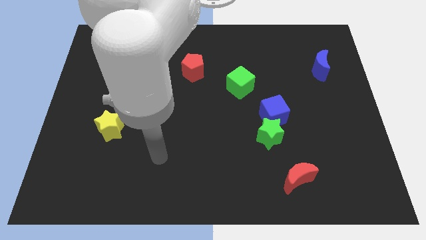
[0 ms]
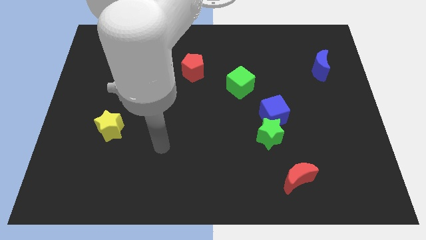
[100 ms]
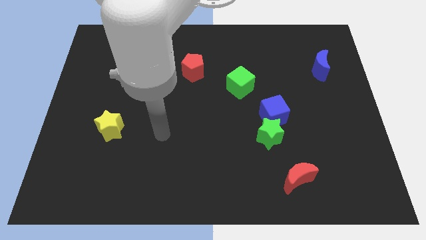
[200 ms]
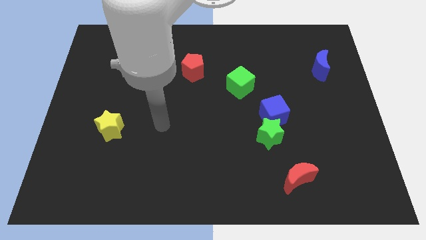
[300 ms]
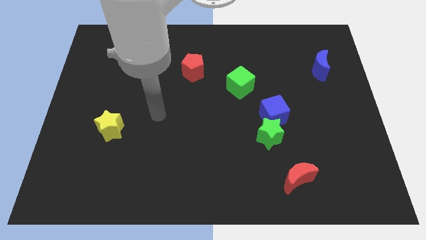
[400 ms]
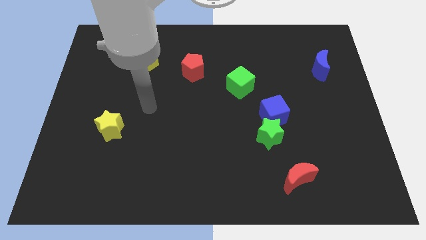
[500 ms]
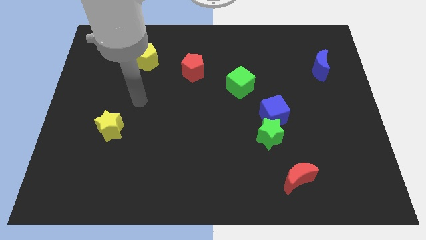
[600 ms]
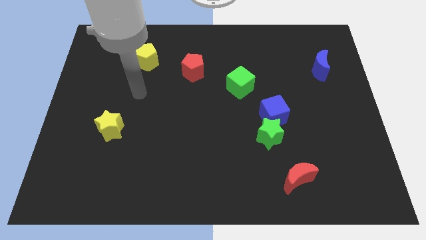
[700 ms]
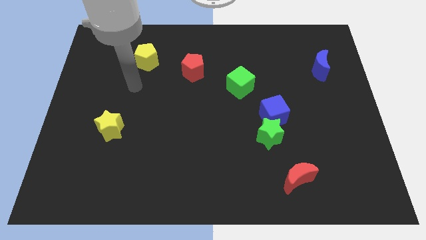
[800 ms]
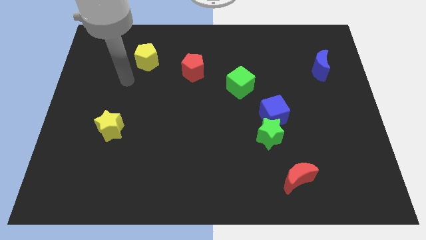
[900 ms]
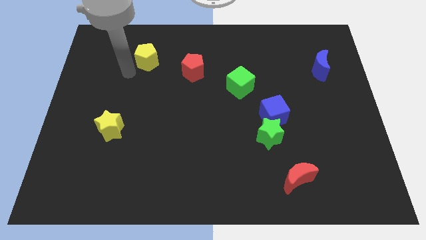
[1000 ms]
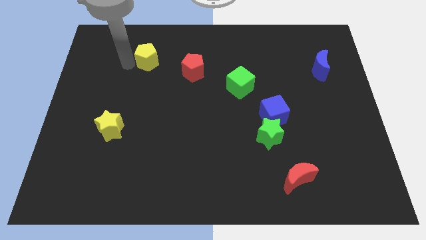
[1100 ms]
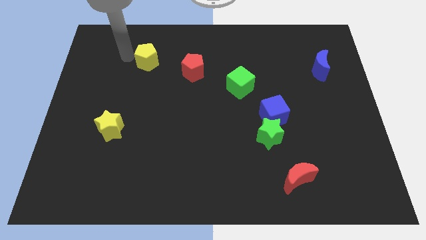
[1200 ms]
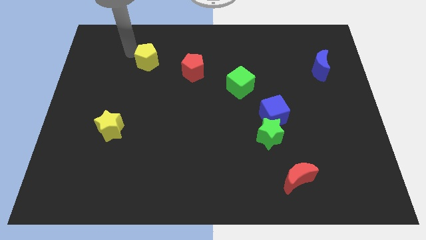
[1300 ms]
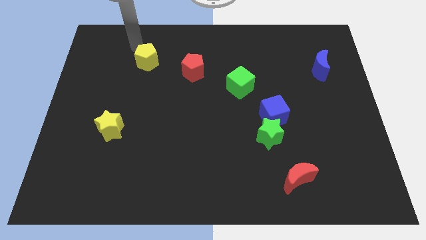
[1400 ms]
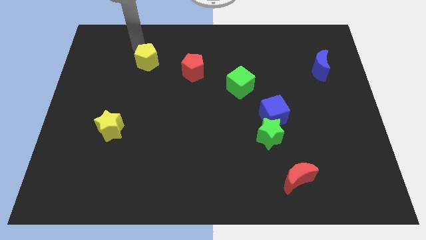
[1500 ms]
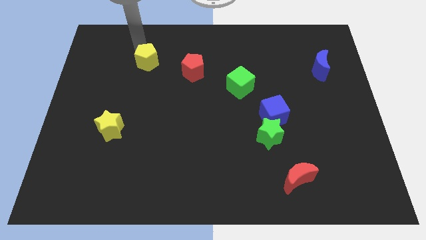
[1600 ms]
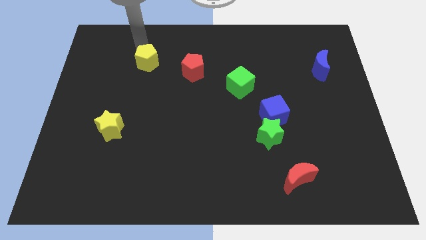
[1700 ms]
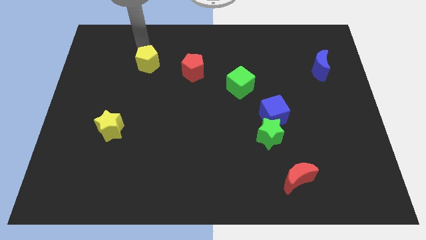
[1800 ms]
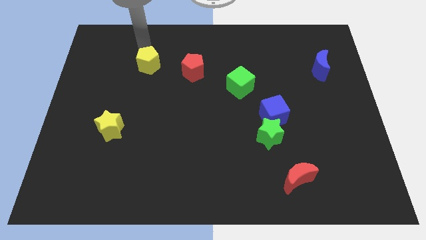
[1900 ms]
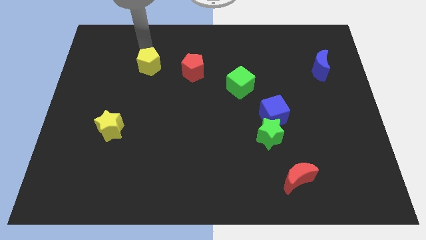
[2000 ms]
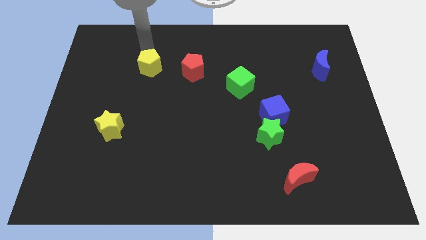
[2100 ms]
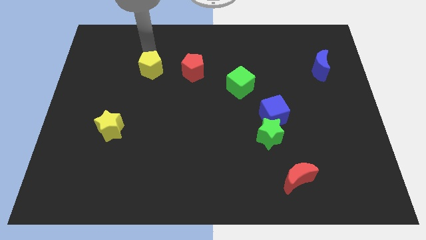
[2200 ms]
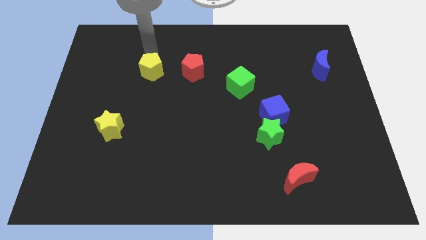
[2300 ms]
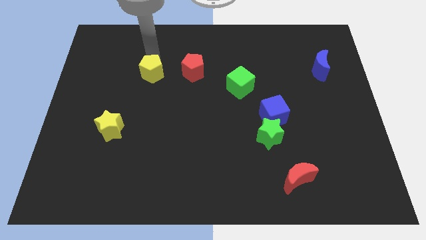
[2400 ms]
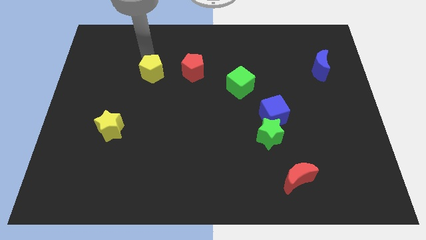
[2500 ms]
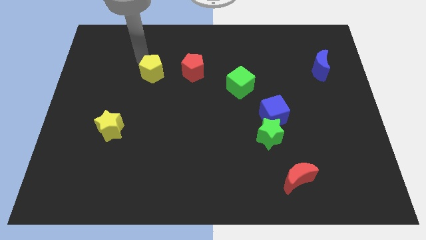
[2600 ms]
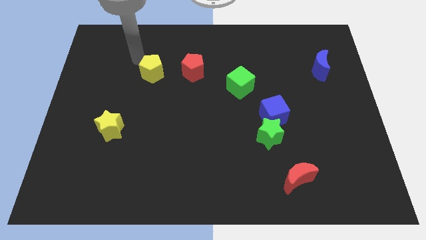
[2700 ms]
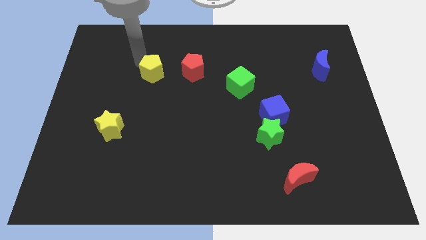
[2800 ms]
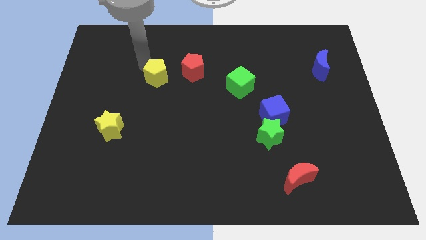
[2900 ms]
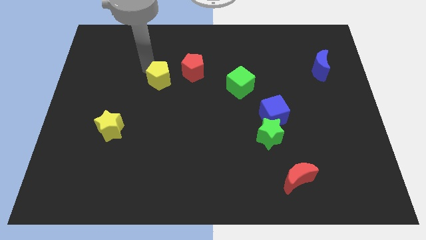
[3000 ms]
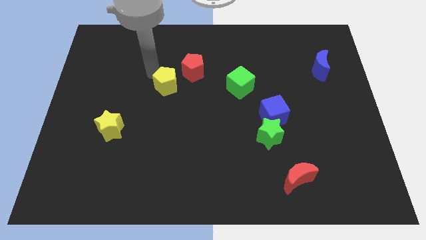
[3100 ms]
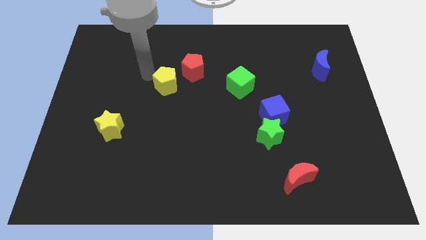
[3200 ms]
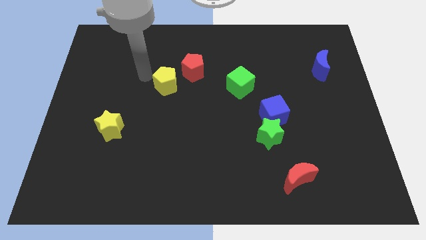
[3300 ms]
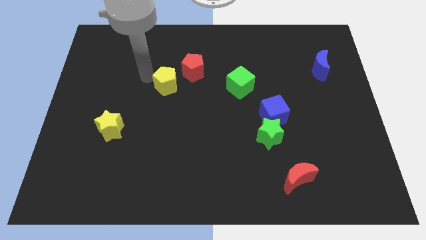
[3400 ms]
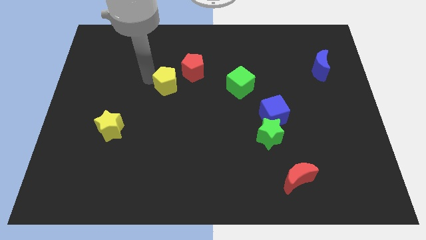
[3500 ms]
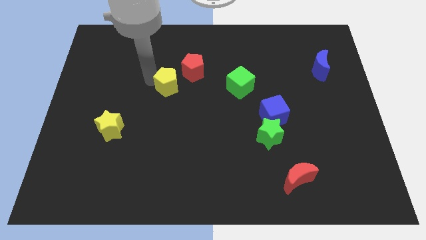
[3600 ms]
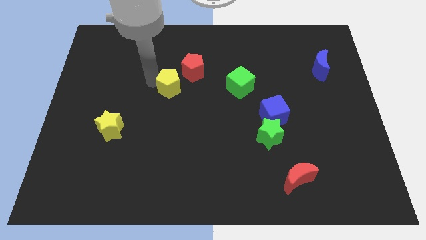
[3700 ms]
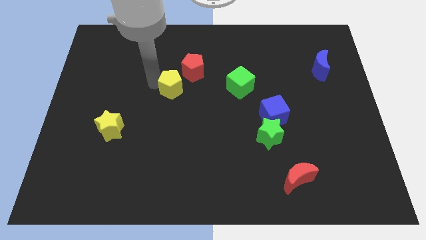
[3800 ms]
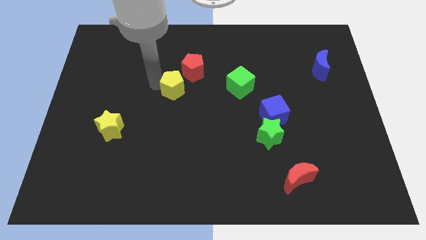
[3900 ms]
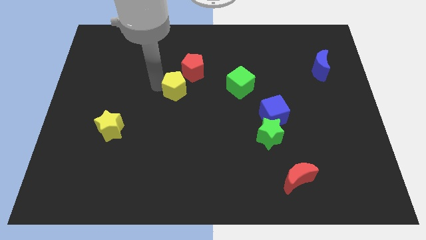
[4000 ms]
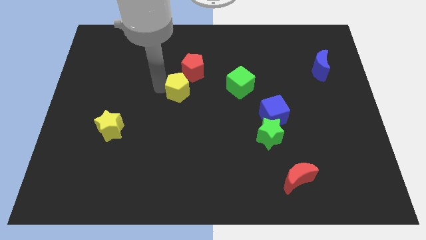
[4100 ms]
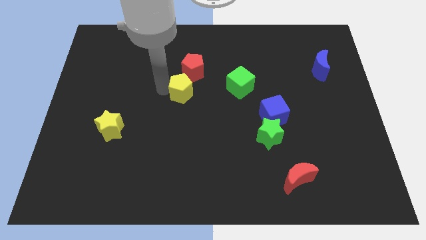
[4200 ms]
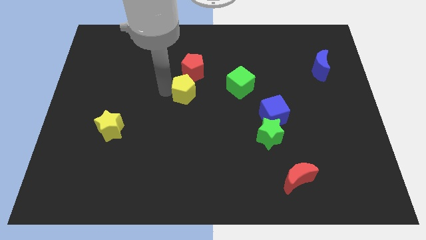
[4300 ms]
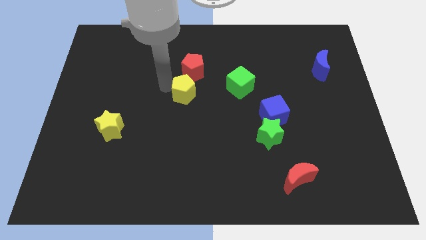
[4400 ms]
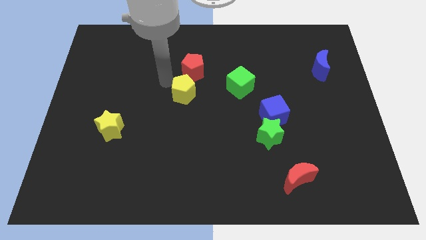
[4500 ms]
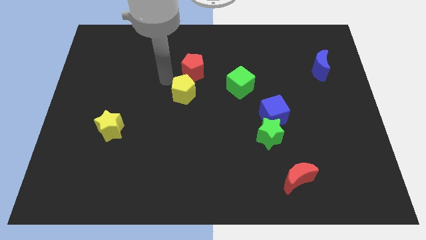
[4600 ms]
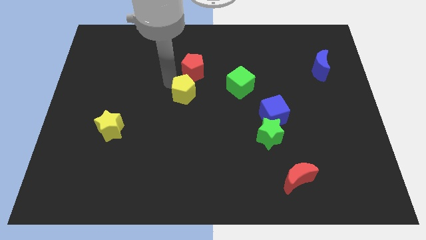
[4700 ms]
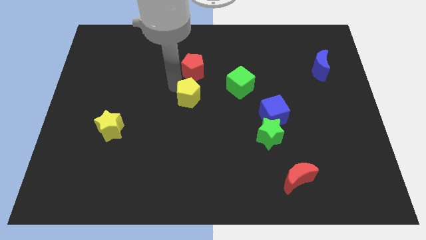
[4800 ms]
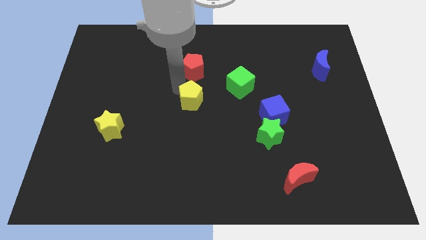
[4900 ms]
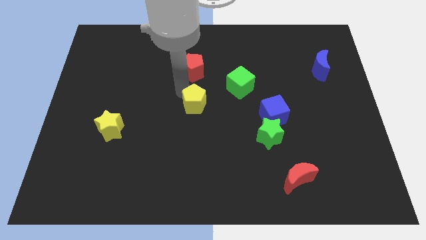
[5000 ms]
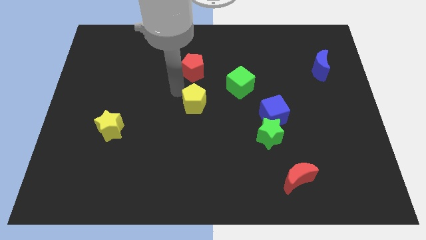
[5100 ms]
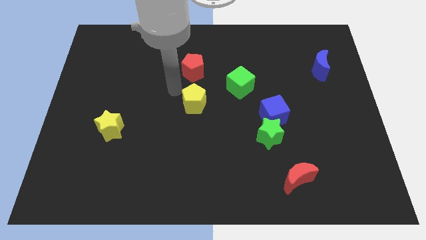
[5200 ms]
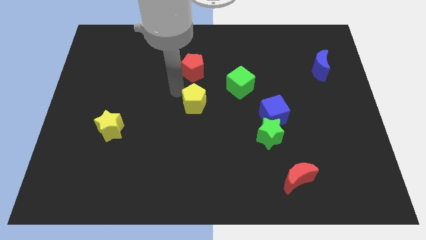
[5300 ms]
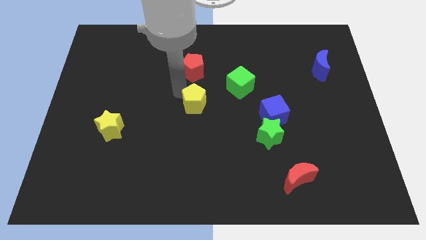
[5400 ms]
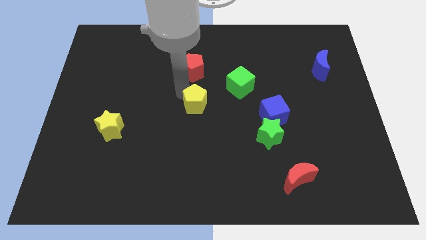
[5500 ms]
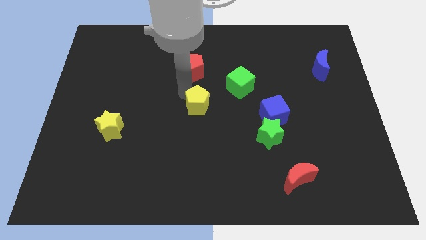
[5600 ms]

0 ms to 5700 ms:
move the yellow pentagon downwards and to the right diagonally

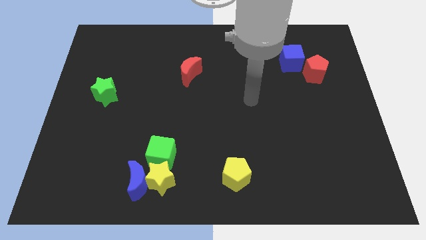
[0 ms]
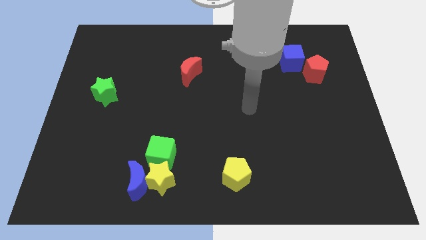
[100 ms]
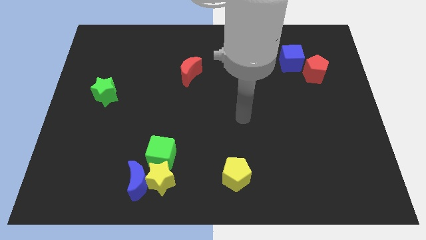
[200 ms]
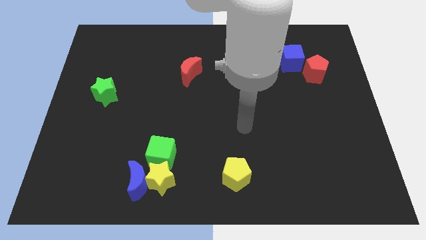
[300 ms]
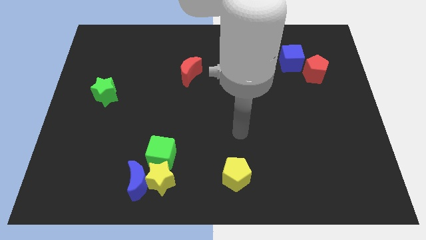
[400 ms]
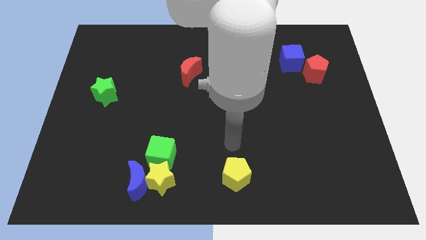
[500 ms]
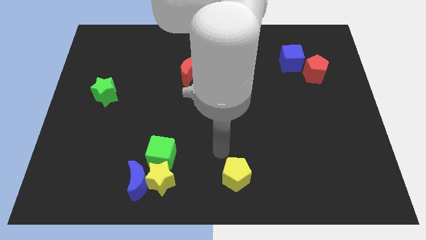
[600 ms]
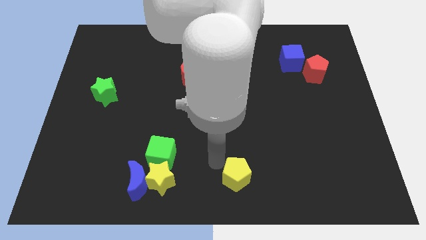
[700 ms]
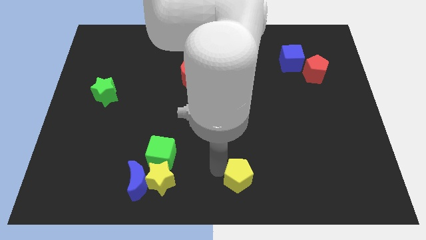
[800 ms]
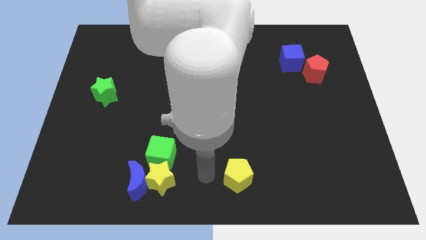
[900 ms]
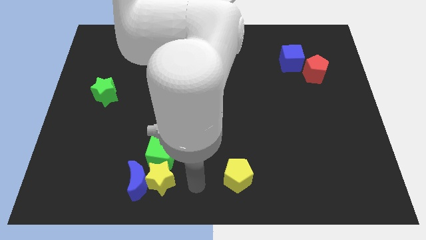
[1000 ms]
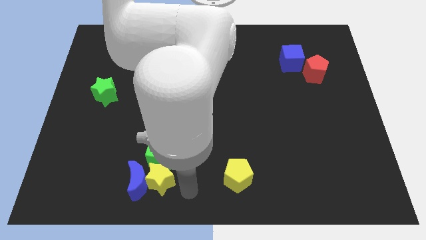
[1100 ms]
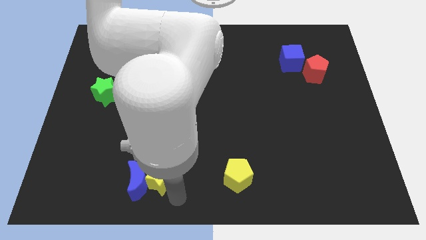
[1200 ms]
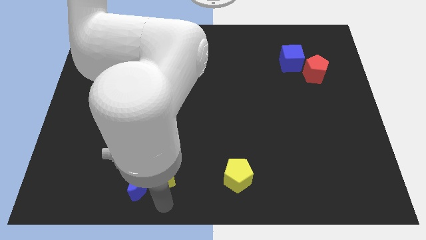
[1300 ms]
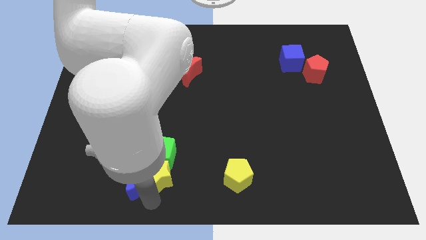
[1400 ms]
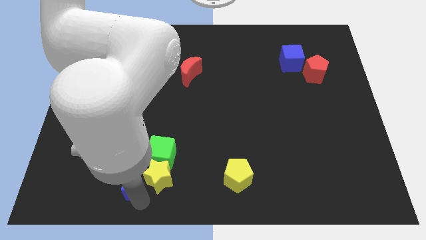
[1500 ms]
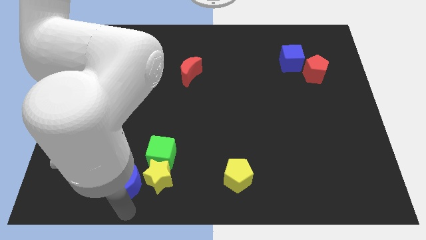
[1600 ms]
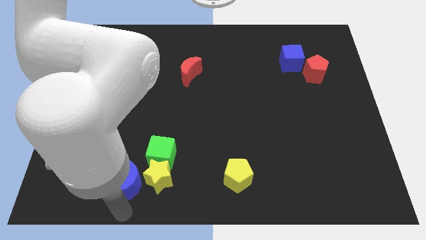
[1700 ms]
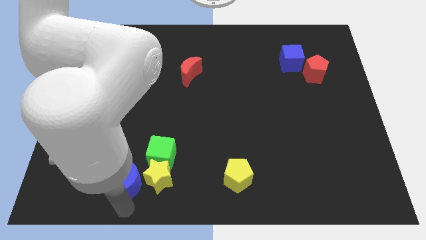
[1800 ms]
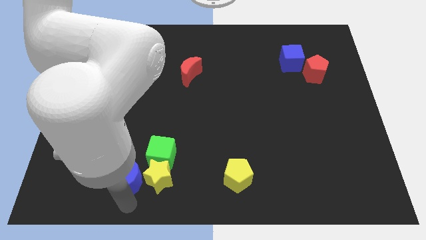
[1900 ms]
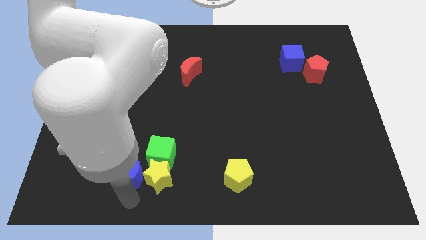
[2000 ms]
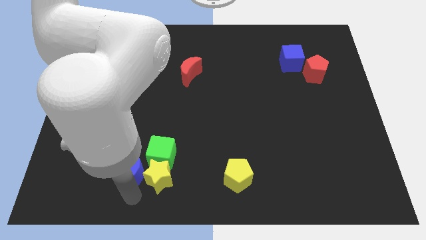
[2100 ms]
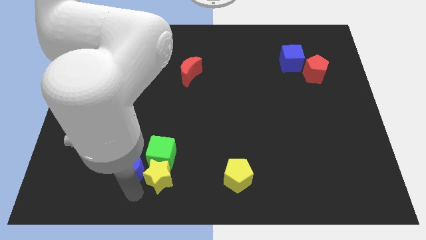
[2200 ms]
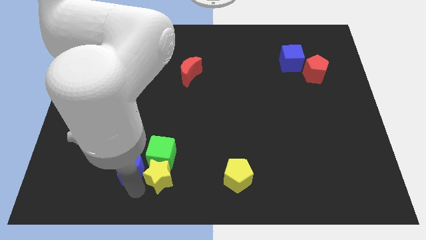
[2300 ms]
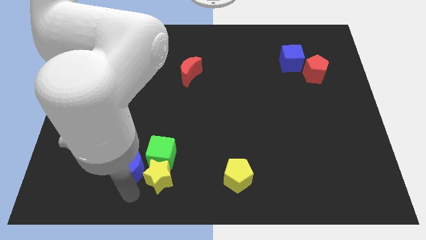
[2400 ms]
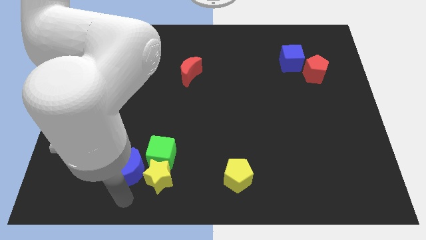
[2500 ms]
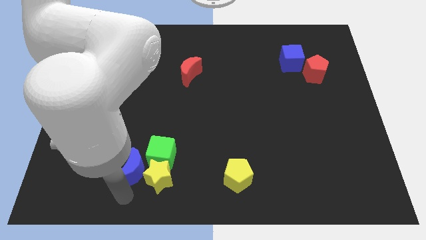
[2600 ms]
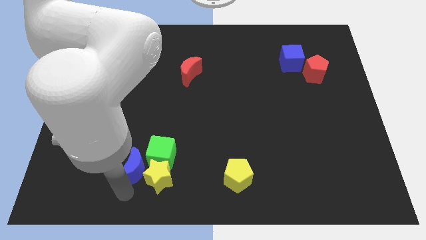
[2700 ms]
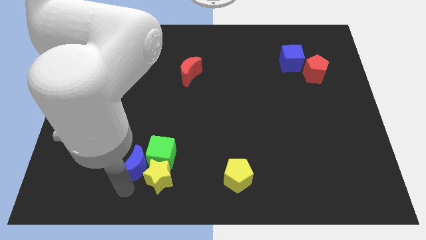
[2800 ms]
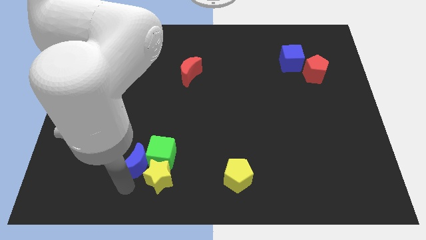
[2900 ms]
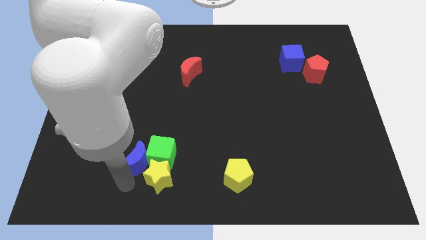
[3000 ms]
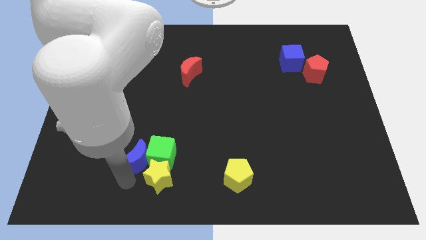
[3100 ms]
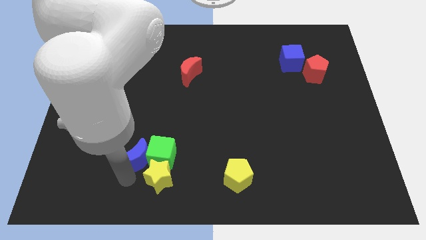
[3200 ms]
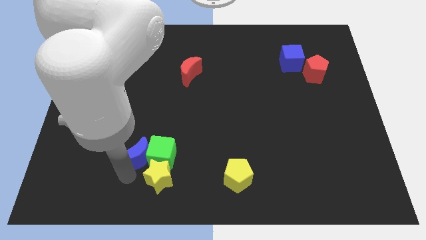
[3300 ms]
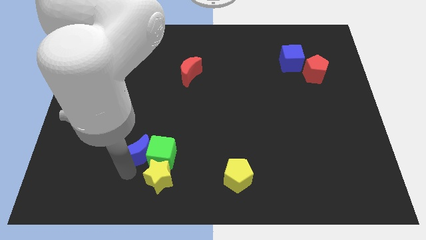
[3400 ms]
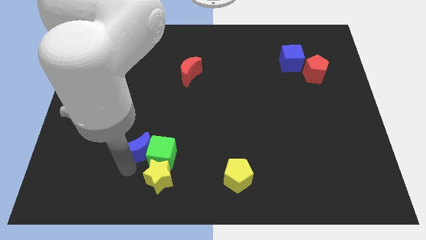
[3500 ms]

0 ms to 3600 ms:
slightly move the blue moon upwards
